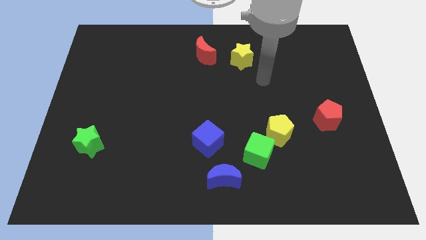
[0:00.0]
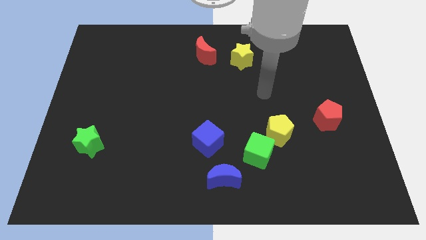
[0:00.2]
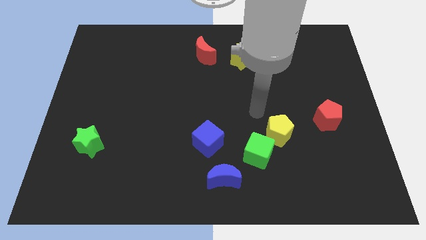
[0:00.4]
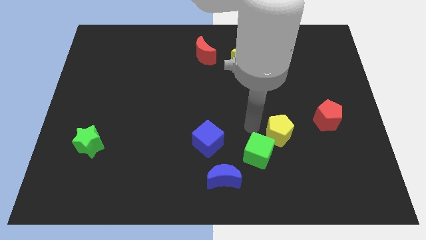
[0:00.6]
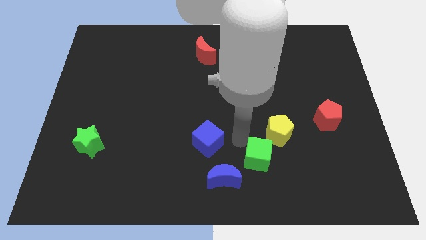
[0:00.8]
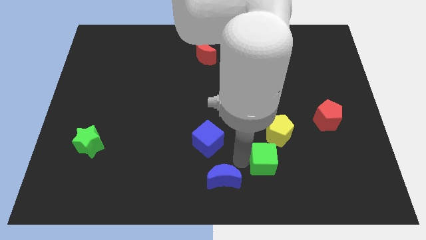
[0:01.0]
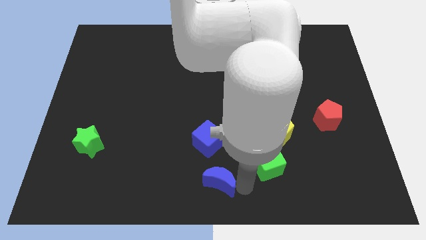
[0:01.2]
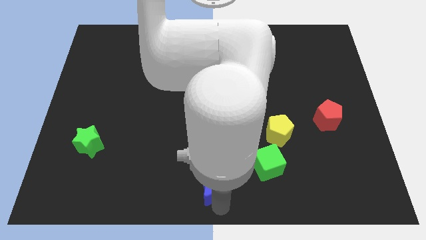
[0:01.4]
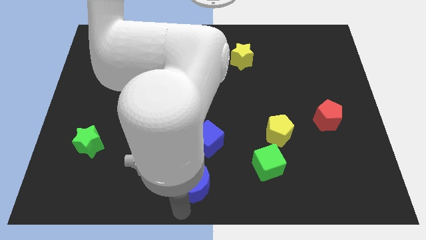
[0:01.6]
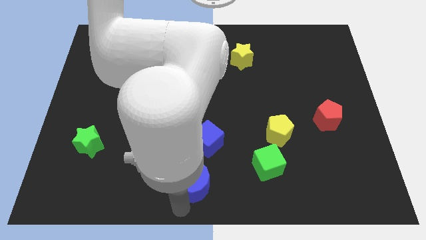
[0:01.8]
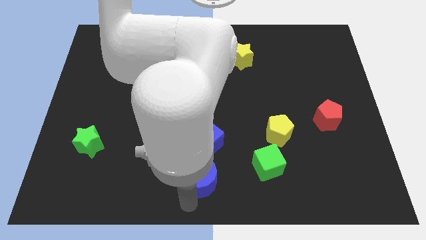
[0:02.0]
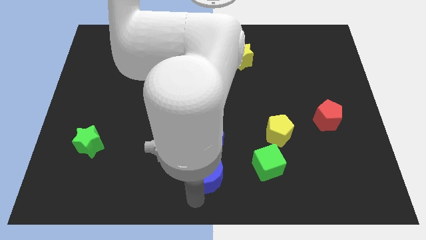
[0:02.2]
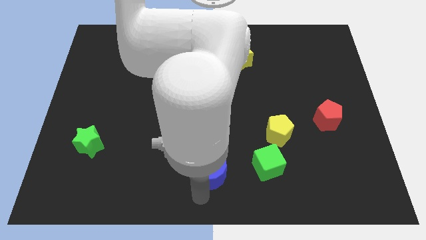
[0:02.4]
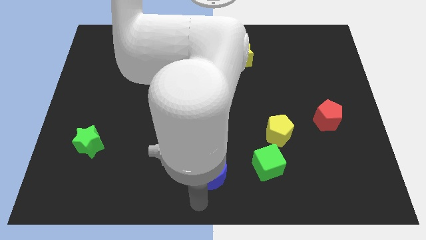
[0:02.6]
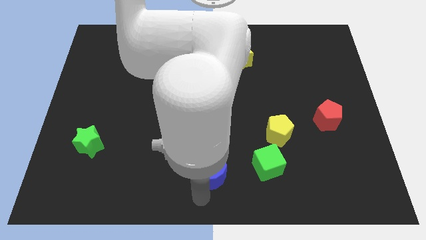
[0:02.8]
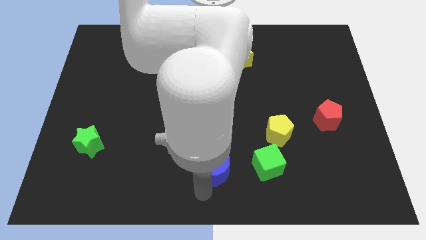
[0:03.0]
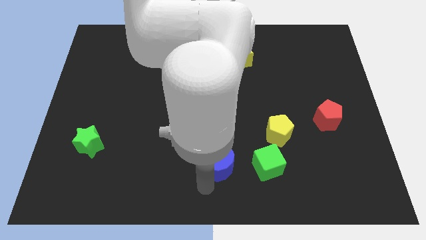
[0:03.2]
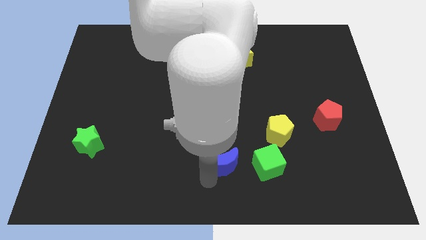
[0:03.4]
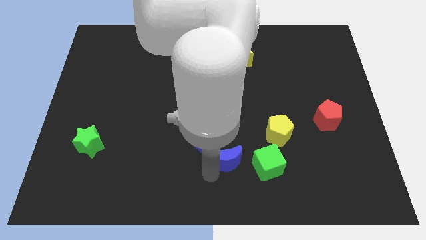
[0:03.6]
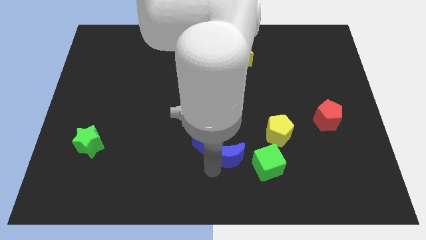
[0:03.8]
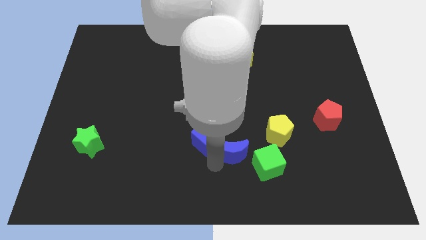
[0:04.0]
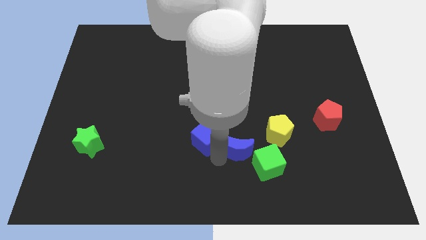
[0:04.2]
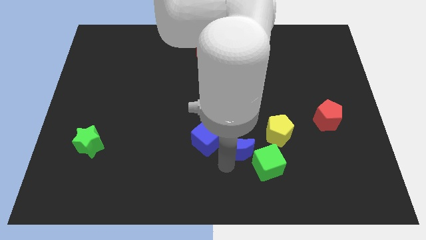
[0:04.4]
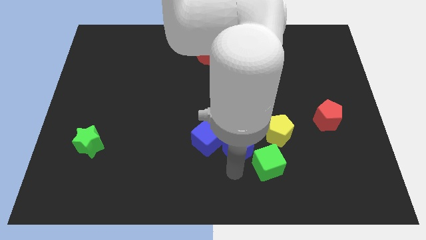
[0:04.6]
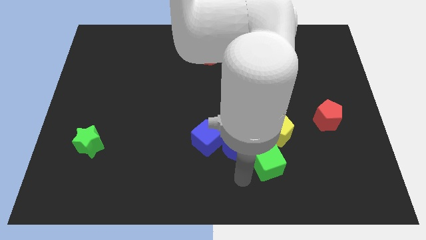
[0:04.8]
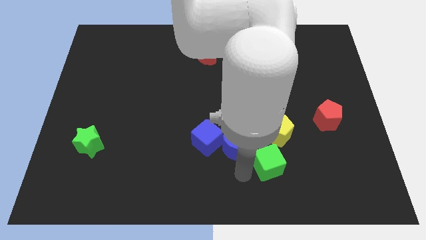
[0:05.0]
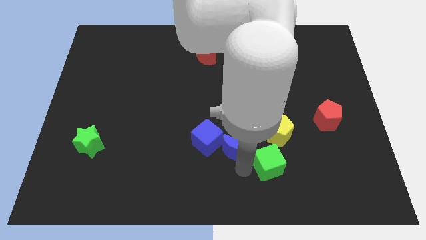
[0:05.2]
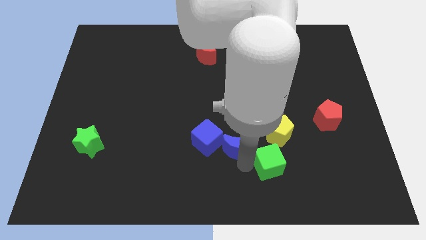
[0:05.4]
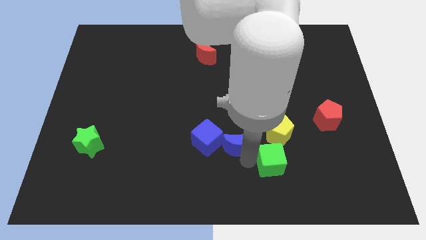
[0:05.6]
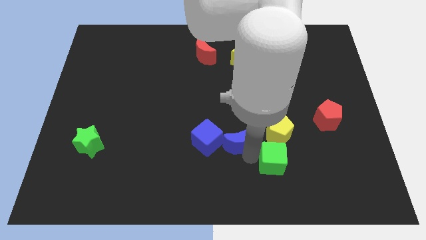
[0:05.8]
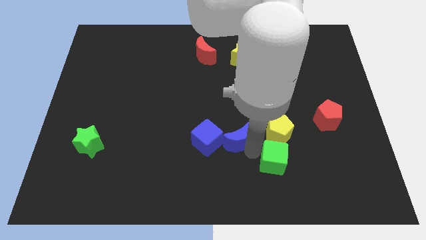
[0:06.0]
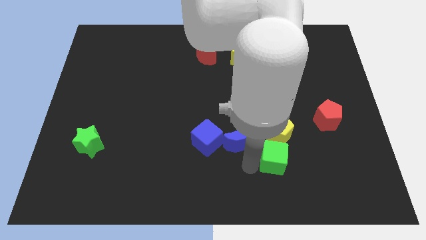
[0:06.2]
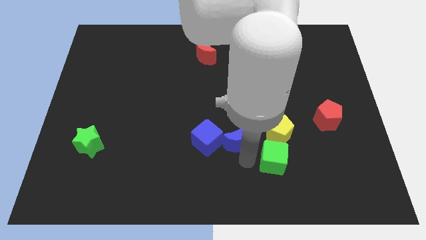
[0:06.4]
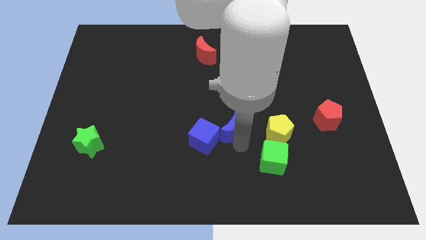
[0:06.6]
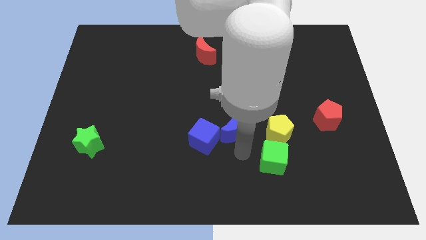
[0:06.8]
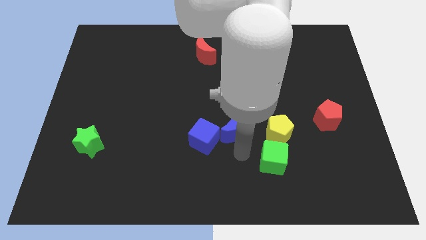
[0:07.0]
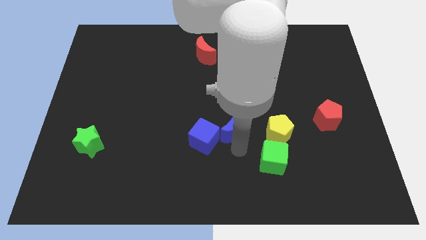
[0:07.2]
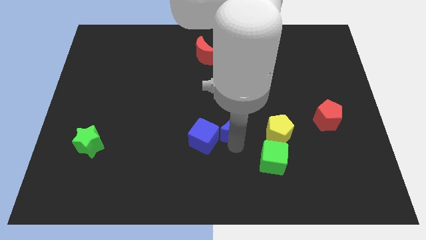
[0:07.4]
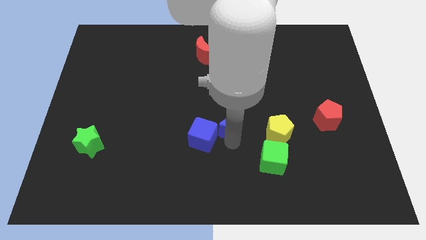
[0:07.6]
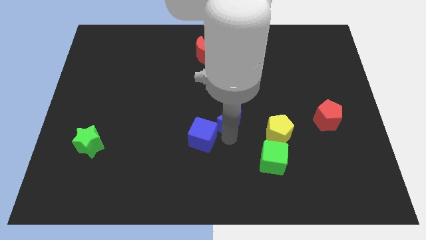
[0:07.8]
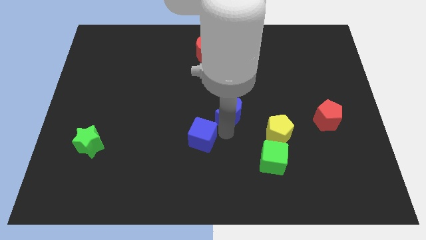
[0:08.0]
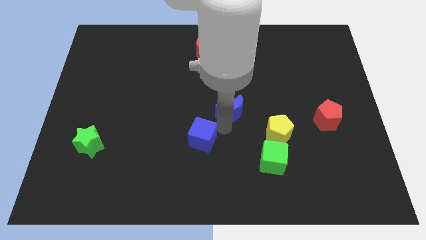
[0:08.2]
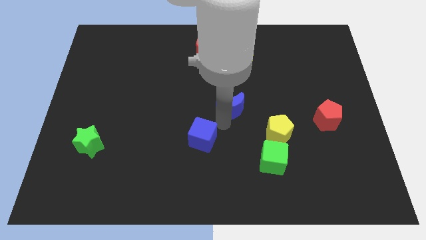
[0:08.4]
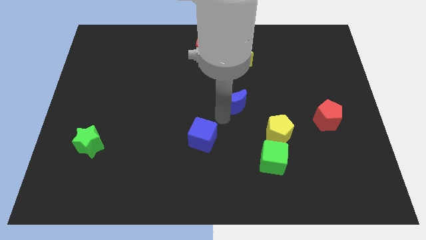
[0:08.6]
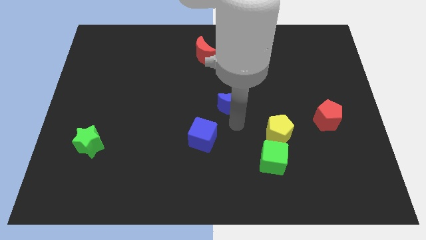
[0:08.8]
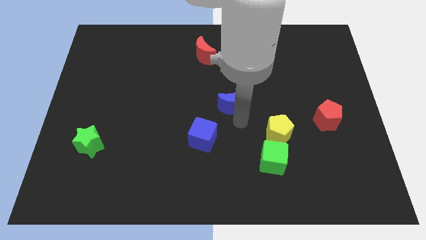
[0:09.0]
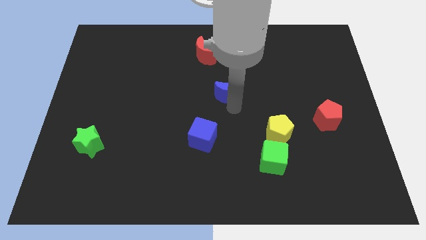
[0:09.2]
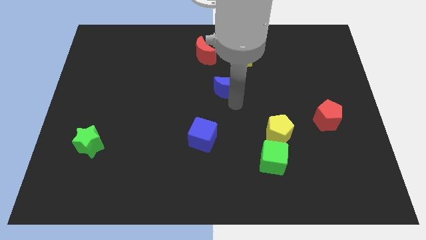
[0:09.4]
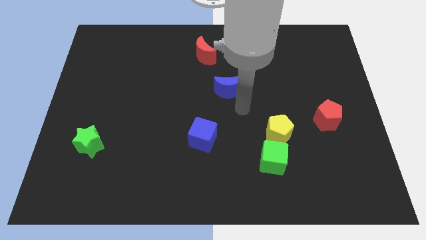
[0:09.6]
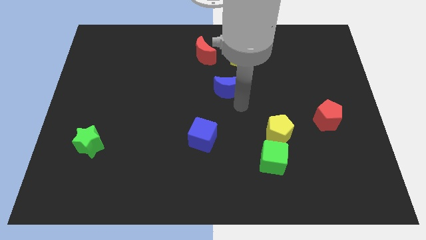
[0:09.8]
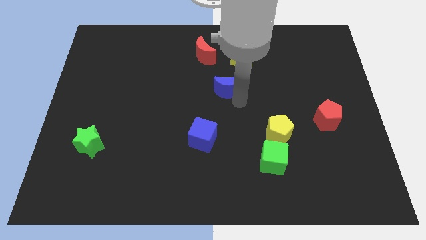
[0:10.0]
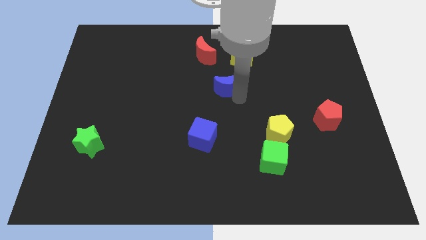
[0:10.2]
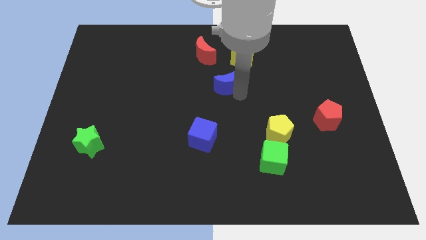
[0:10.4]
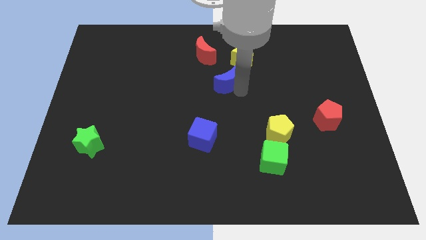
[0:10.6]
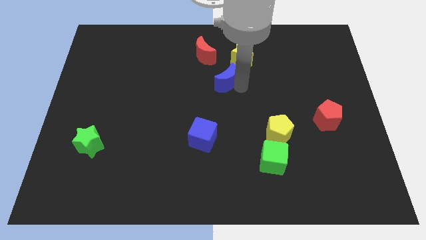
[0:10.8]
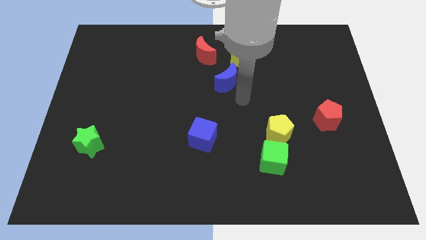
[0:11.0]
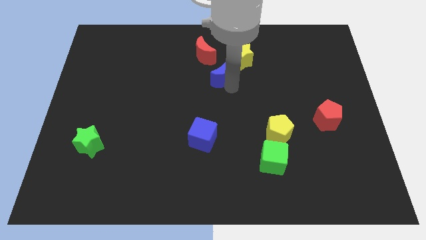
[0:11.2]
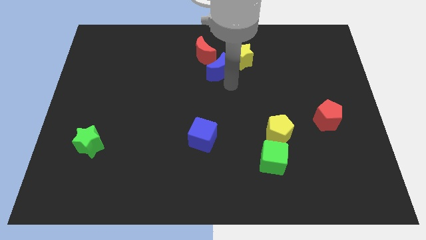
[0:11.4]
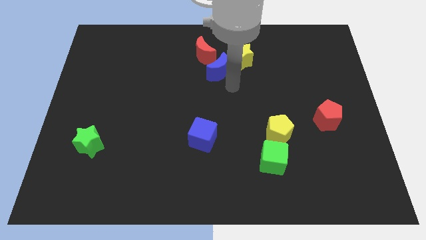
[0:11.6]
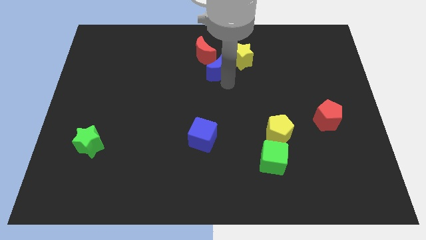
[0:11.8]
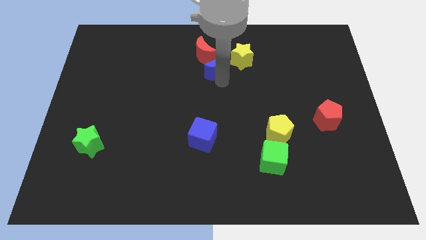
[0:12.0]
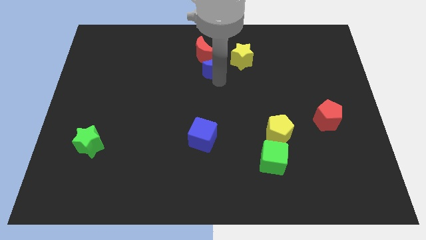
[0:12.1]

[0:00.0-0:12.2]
push the blue moon towards the red moon

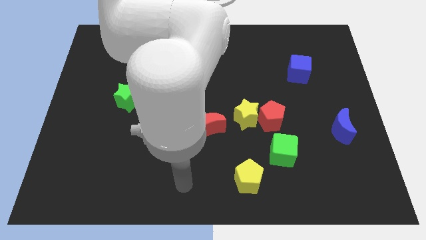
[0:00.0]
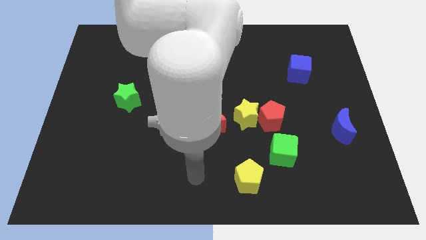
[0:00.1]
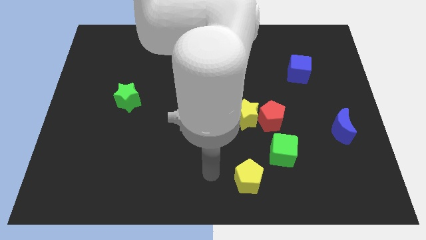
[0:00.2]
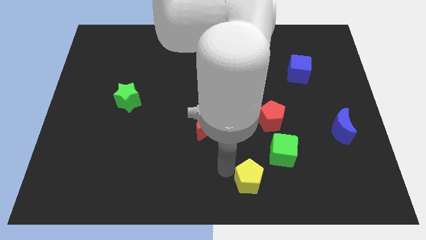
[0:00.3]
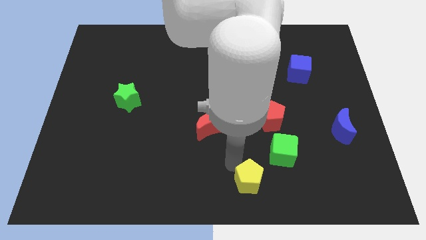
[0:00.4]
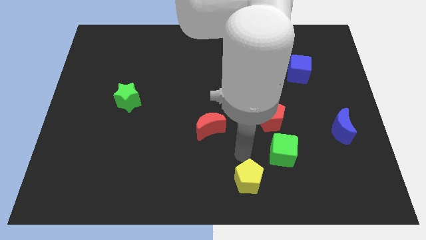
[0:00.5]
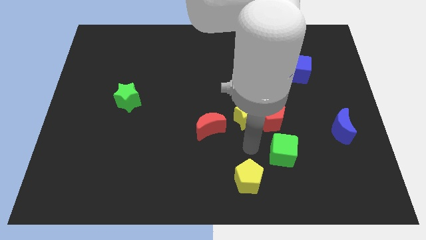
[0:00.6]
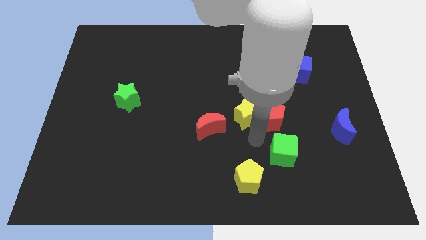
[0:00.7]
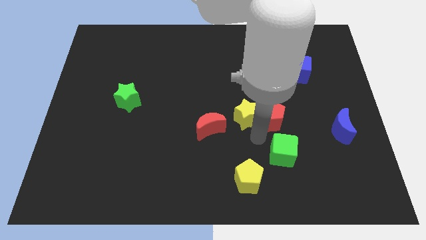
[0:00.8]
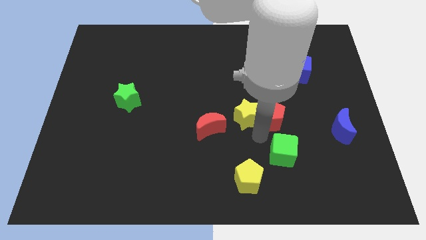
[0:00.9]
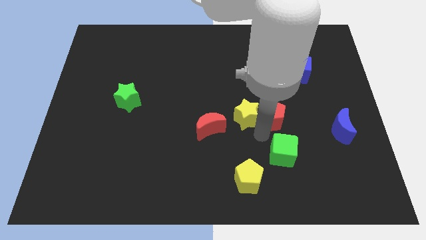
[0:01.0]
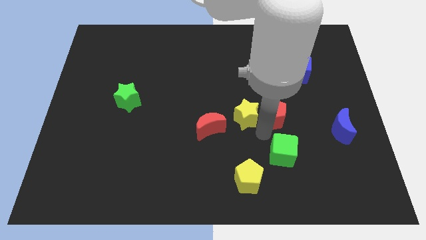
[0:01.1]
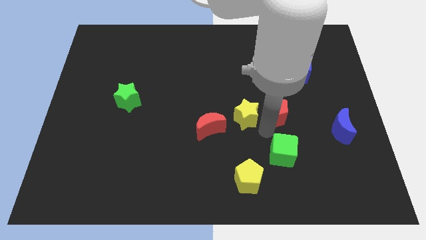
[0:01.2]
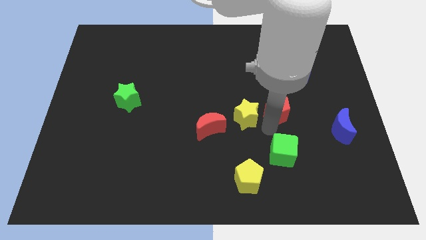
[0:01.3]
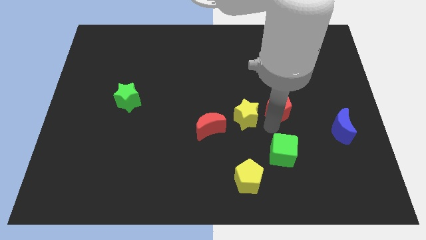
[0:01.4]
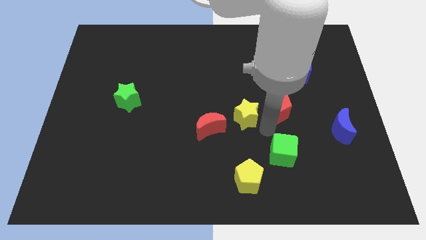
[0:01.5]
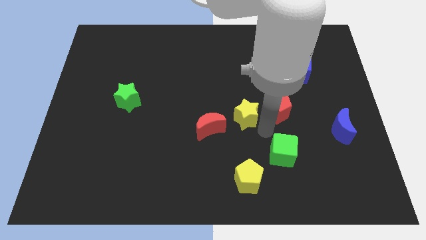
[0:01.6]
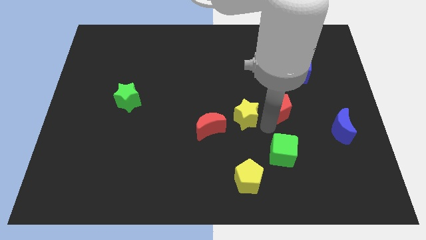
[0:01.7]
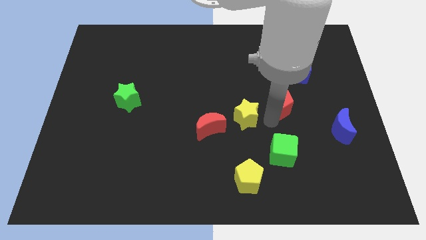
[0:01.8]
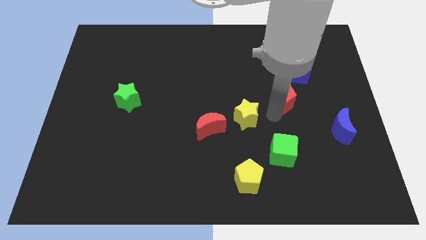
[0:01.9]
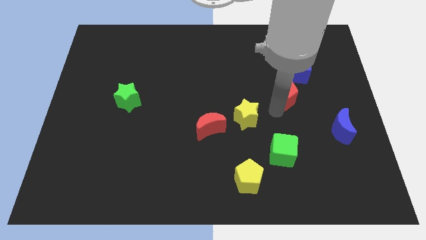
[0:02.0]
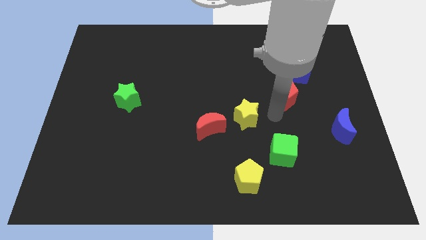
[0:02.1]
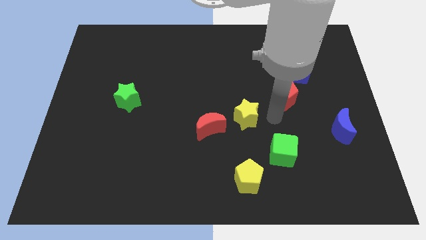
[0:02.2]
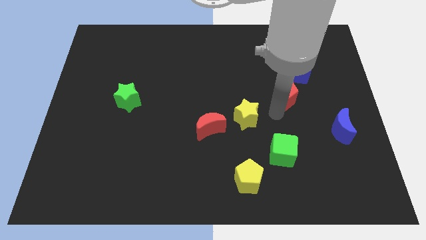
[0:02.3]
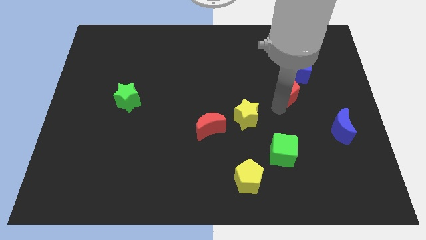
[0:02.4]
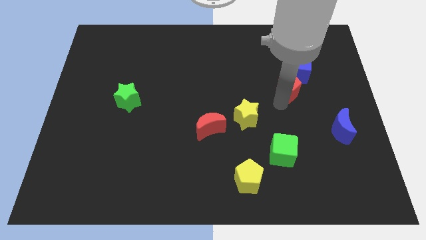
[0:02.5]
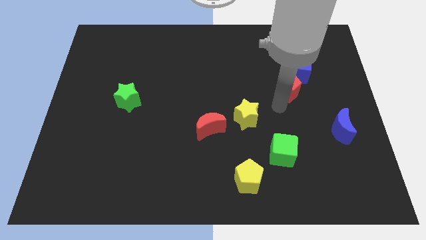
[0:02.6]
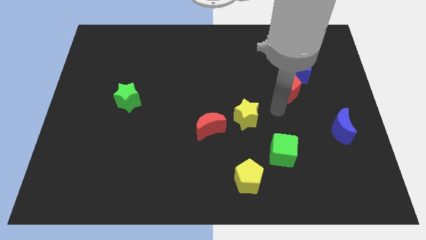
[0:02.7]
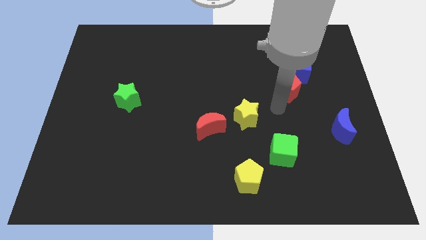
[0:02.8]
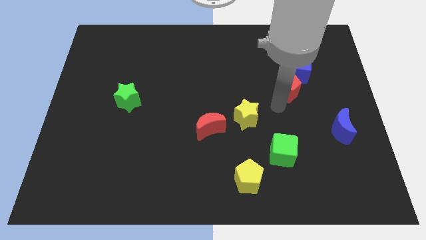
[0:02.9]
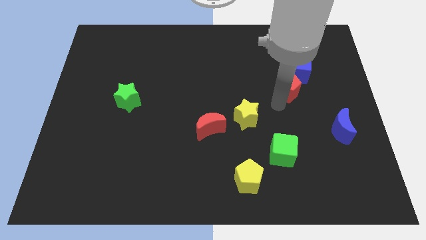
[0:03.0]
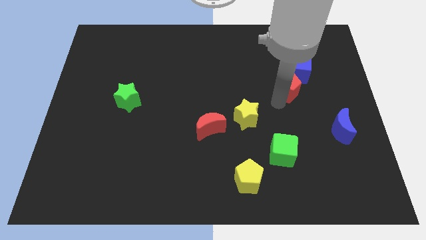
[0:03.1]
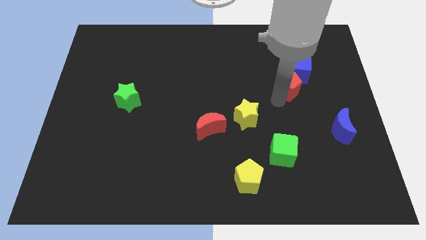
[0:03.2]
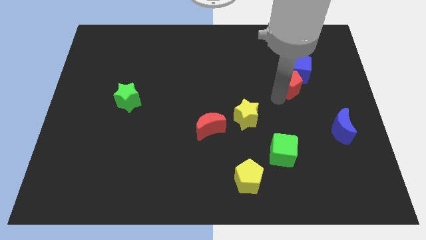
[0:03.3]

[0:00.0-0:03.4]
put the red pentagon close to the blue cube
